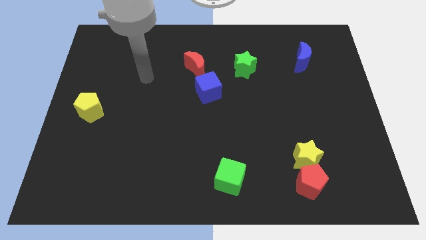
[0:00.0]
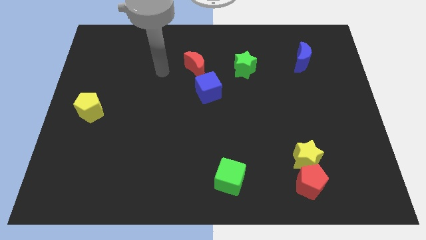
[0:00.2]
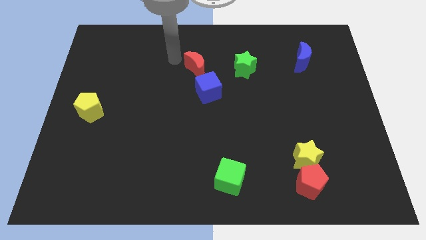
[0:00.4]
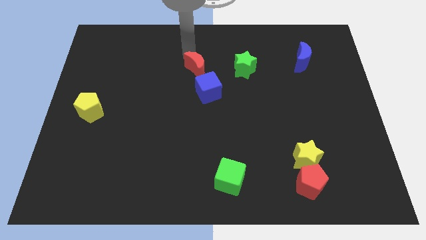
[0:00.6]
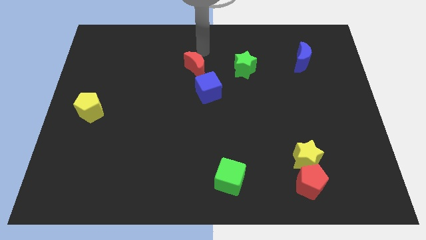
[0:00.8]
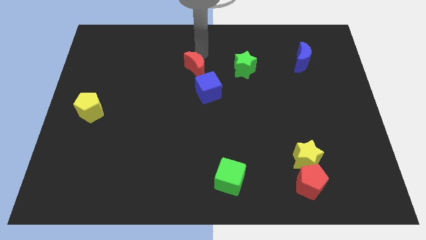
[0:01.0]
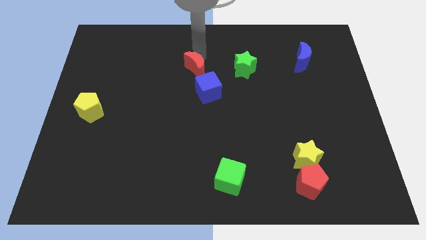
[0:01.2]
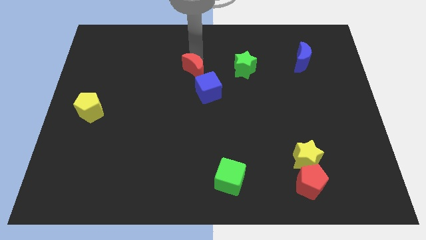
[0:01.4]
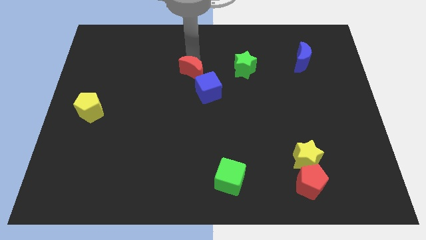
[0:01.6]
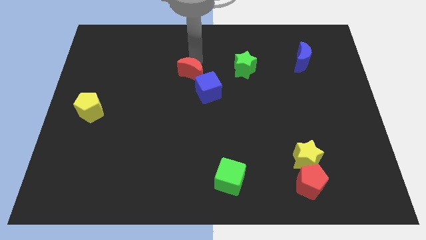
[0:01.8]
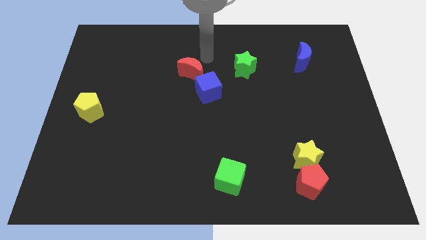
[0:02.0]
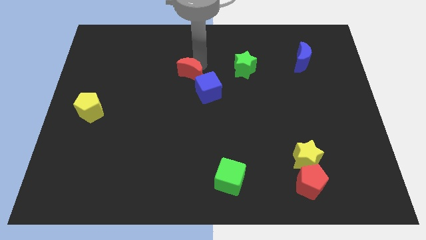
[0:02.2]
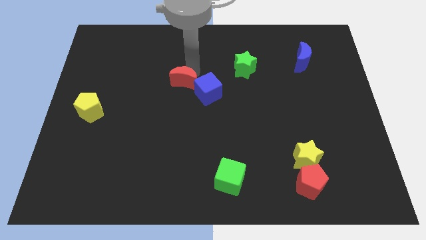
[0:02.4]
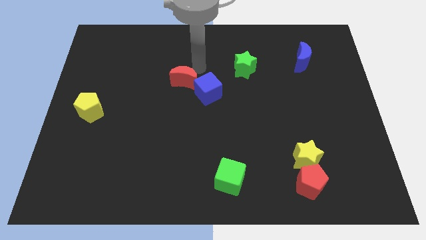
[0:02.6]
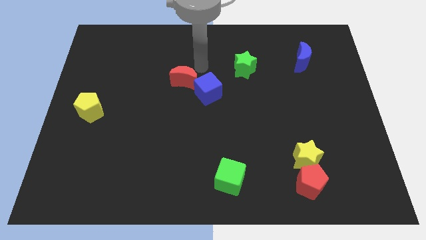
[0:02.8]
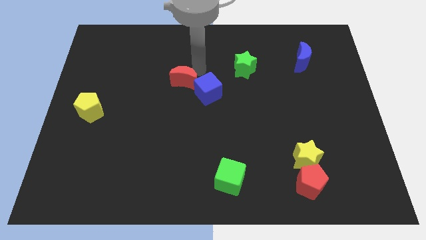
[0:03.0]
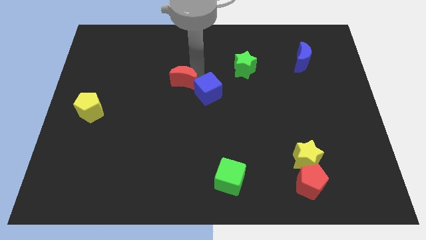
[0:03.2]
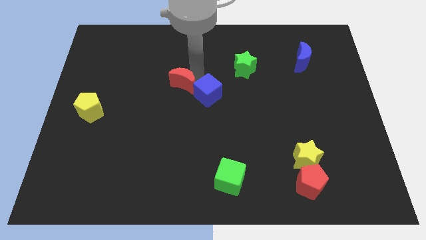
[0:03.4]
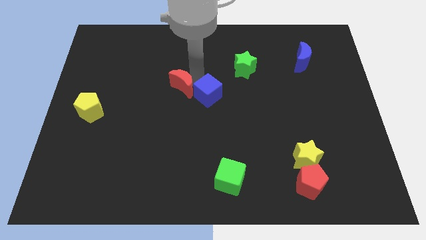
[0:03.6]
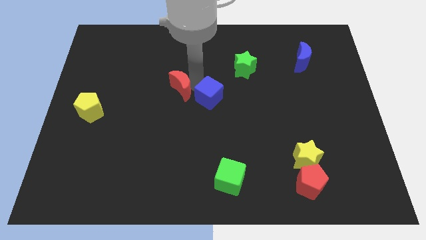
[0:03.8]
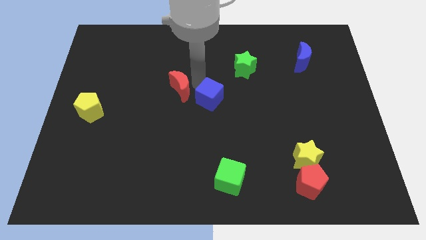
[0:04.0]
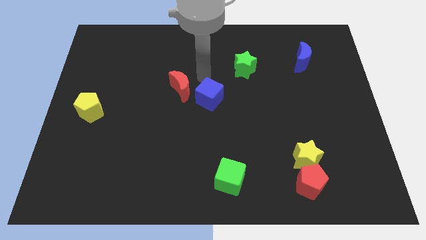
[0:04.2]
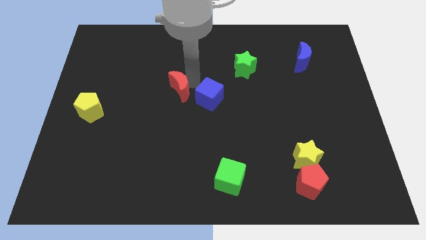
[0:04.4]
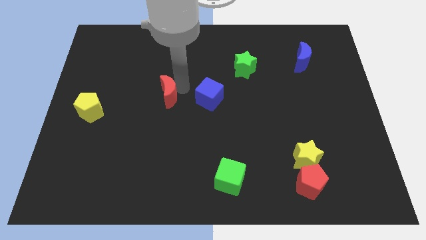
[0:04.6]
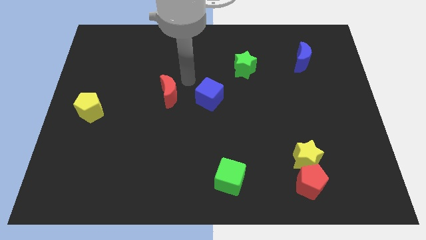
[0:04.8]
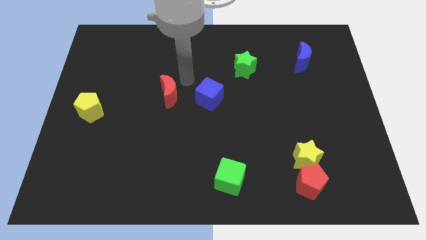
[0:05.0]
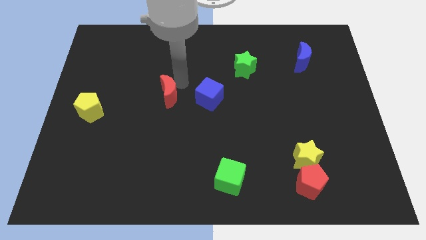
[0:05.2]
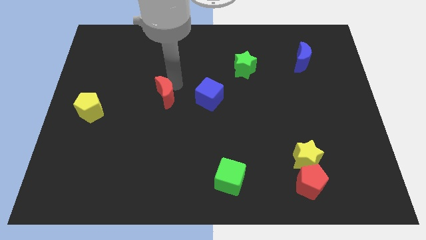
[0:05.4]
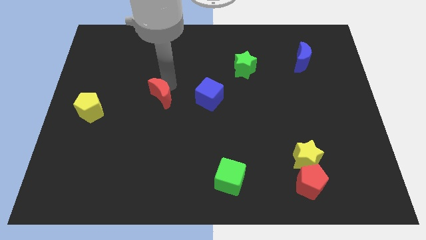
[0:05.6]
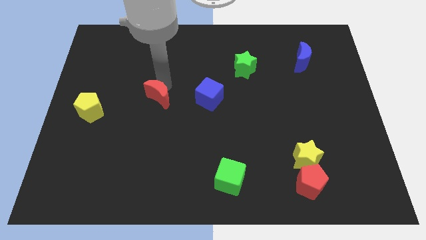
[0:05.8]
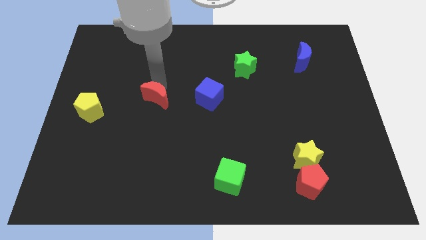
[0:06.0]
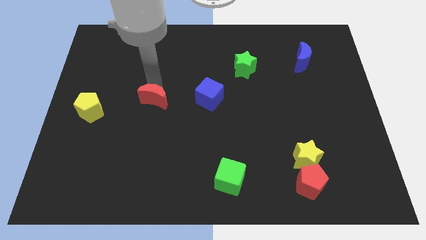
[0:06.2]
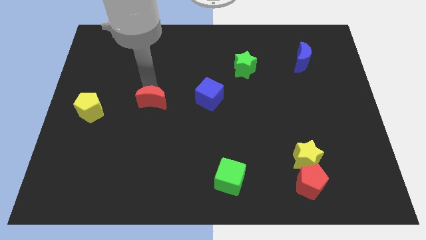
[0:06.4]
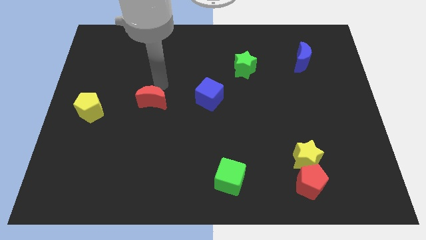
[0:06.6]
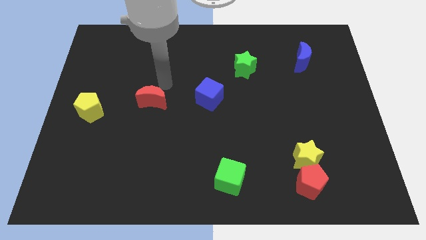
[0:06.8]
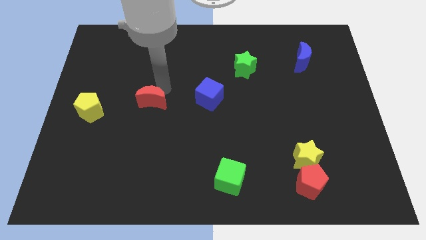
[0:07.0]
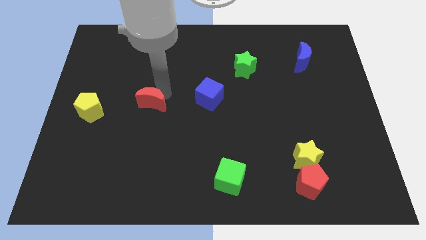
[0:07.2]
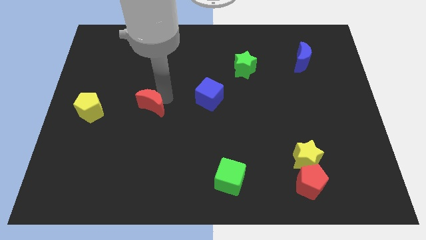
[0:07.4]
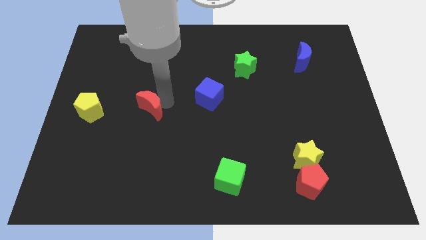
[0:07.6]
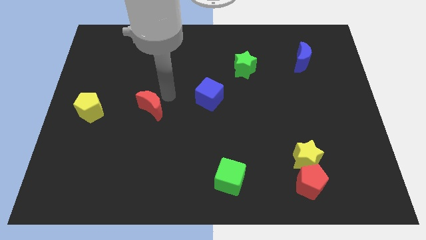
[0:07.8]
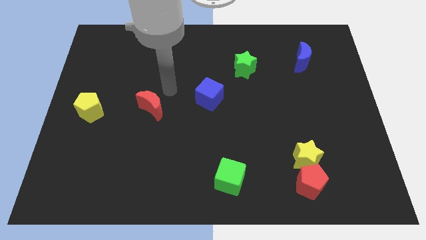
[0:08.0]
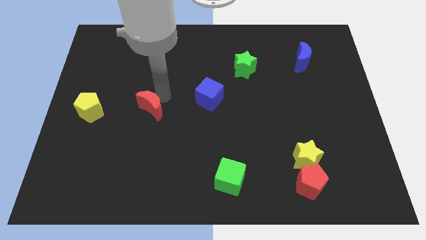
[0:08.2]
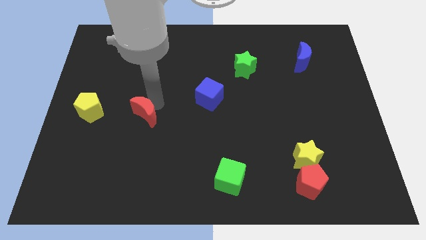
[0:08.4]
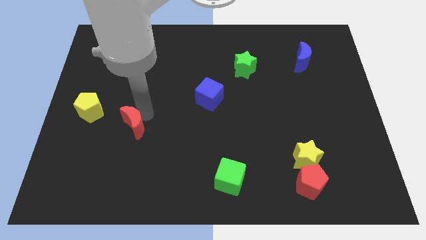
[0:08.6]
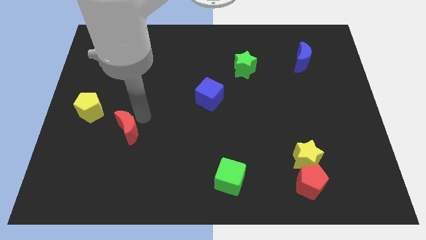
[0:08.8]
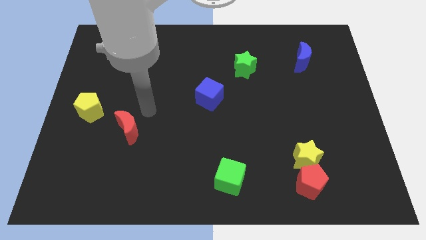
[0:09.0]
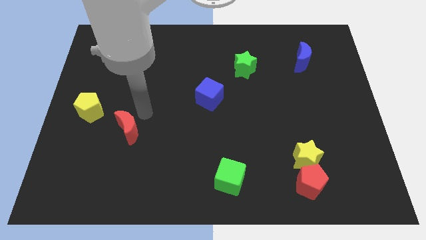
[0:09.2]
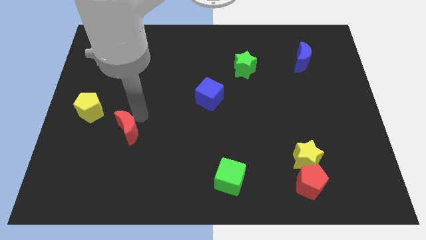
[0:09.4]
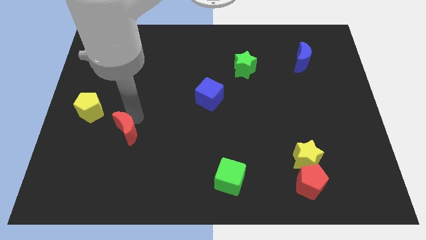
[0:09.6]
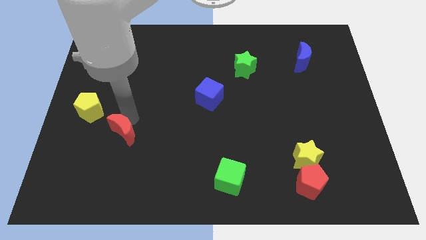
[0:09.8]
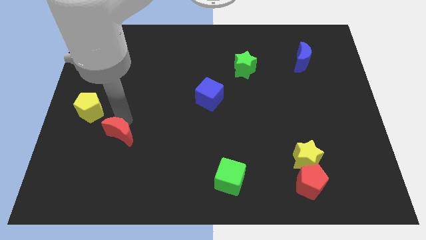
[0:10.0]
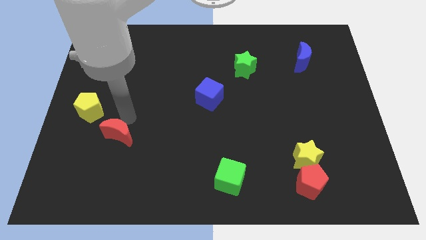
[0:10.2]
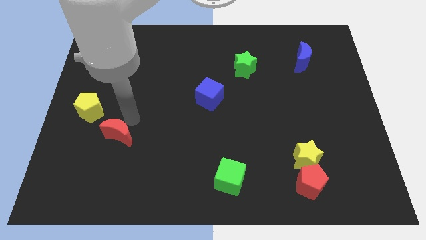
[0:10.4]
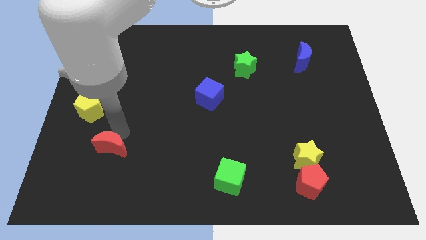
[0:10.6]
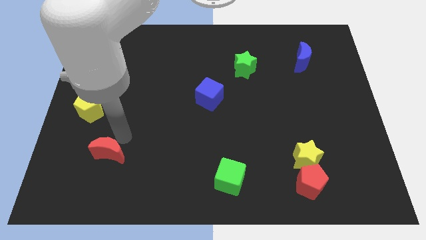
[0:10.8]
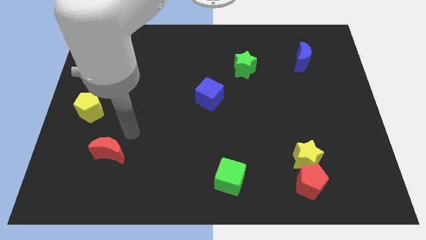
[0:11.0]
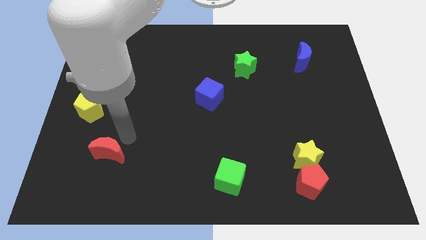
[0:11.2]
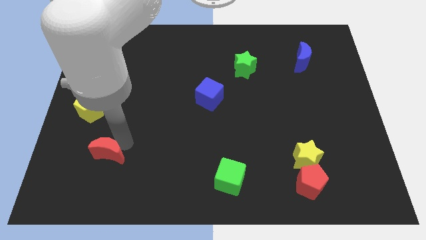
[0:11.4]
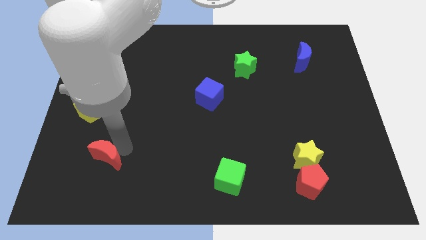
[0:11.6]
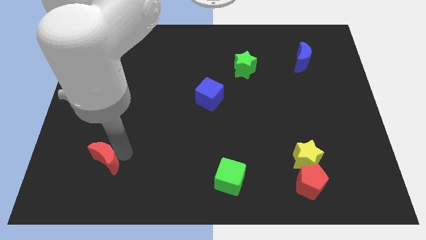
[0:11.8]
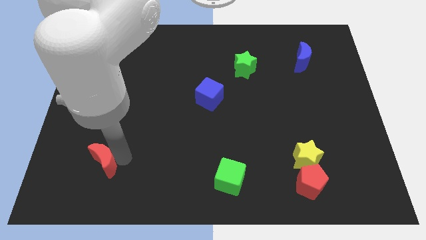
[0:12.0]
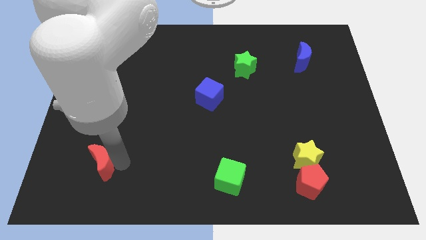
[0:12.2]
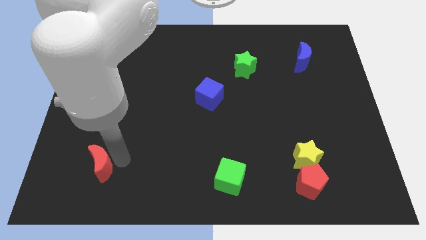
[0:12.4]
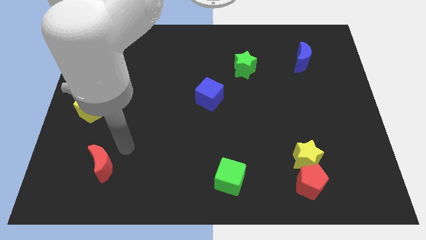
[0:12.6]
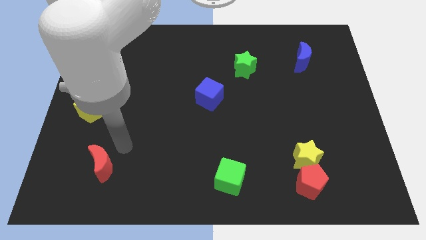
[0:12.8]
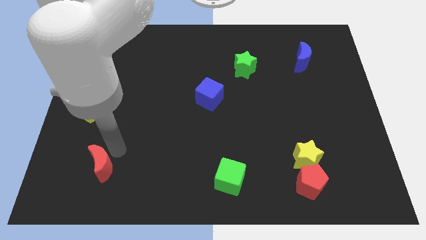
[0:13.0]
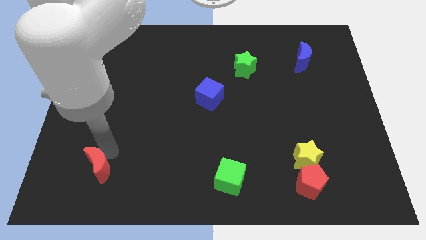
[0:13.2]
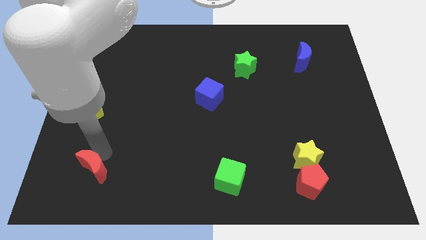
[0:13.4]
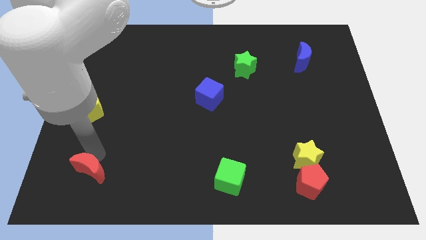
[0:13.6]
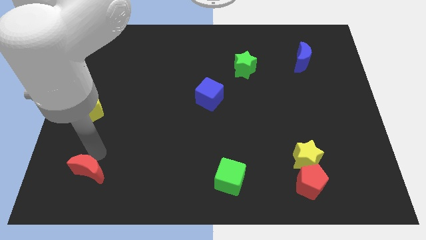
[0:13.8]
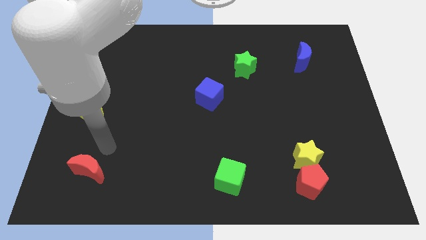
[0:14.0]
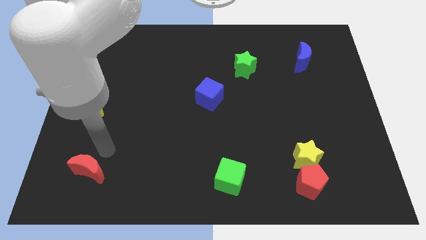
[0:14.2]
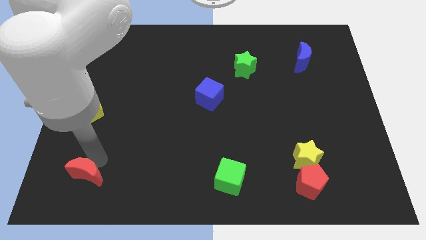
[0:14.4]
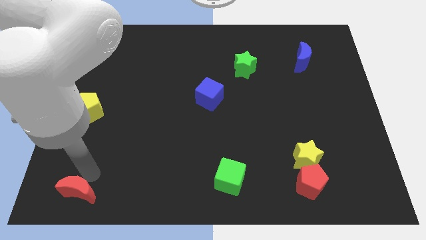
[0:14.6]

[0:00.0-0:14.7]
move the red moon to the lower left corner
